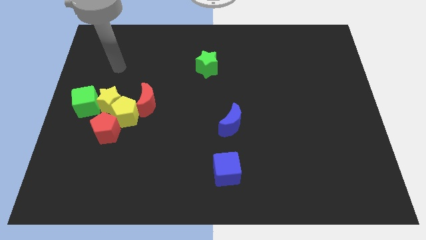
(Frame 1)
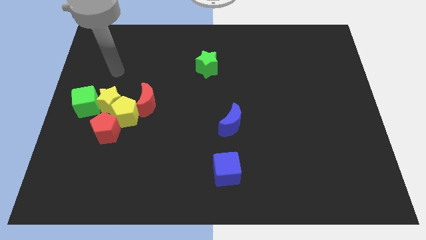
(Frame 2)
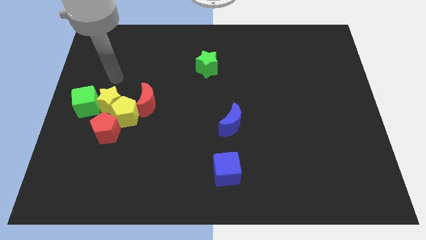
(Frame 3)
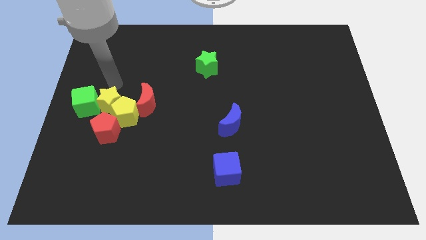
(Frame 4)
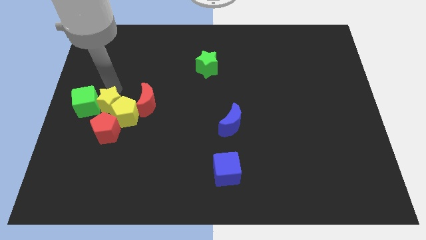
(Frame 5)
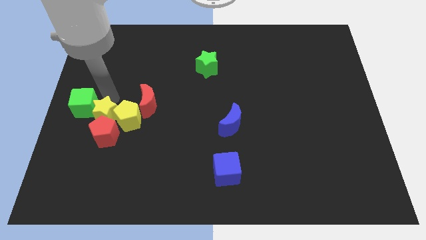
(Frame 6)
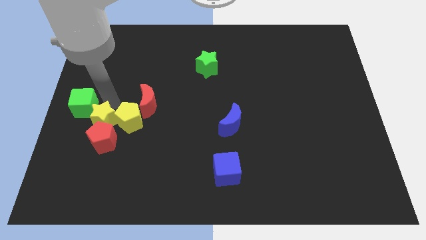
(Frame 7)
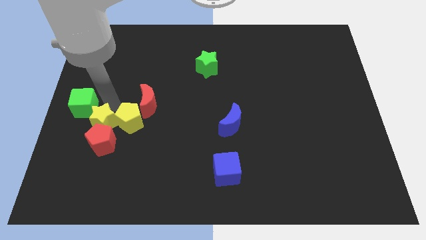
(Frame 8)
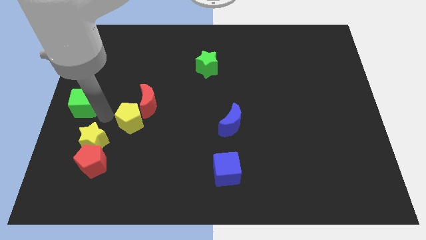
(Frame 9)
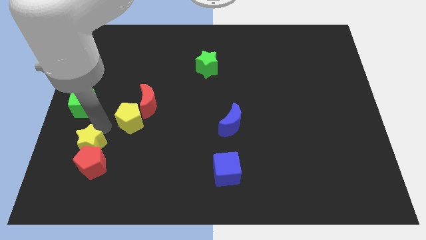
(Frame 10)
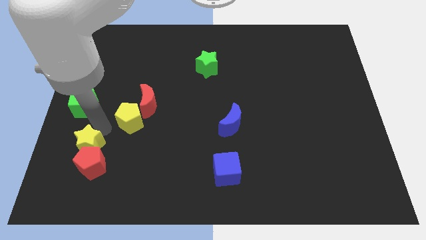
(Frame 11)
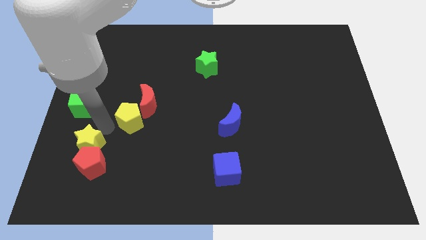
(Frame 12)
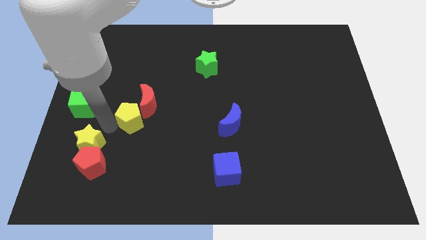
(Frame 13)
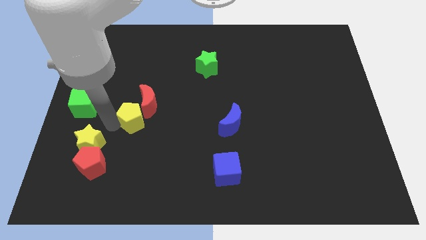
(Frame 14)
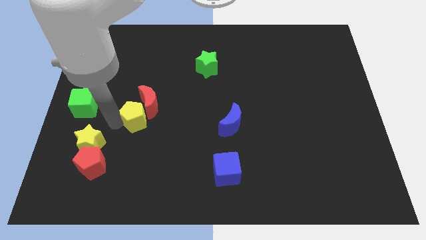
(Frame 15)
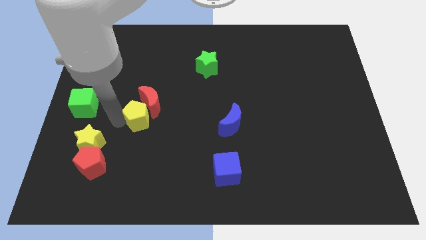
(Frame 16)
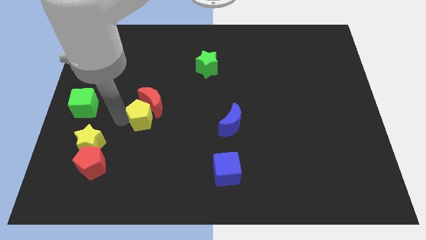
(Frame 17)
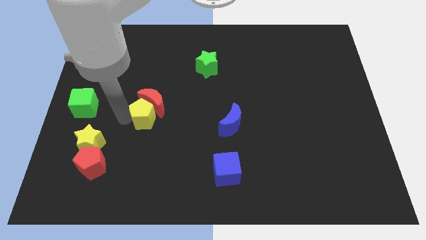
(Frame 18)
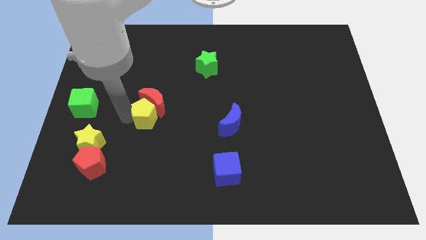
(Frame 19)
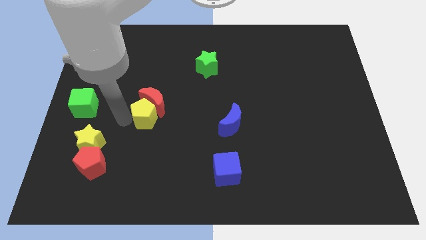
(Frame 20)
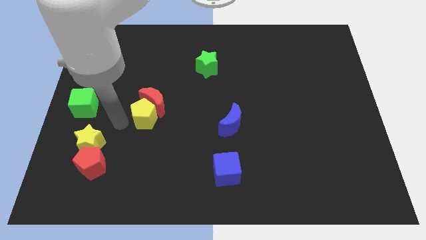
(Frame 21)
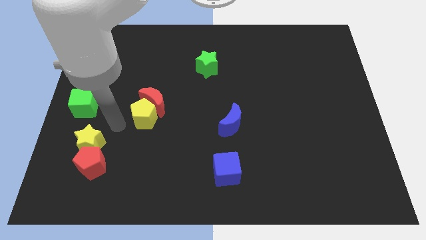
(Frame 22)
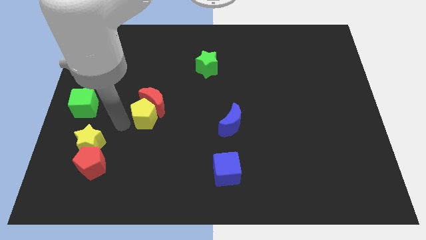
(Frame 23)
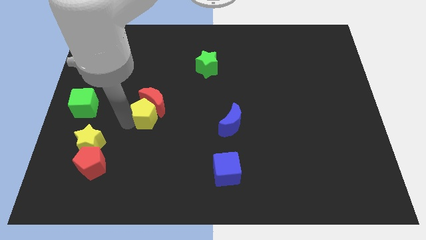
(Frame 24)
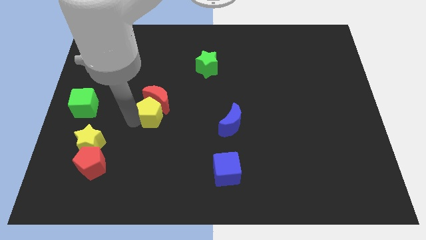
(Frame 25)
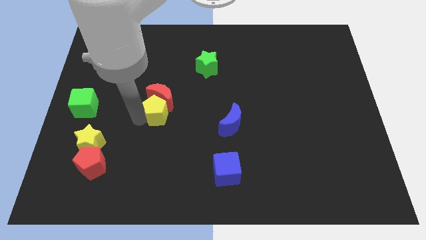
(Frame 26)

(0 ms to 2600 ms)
move the yellow pentagon away from the group

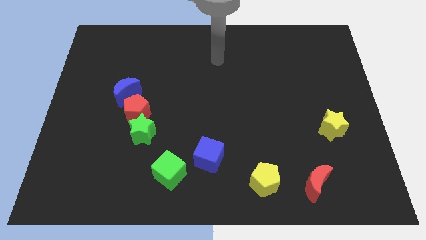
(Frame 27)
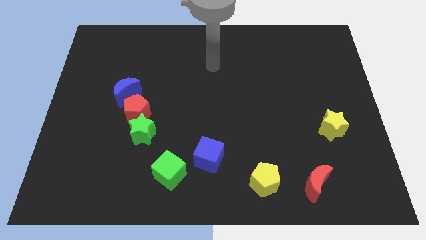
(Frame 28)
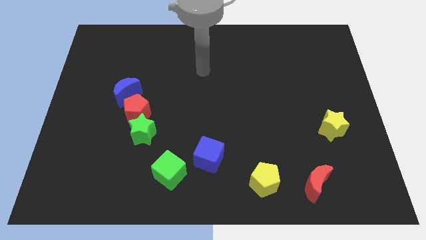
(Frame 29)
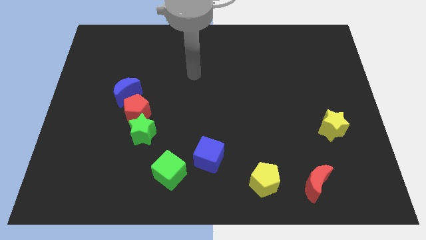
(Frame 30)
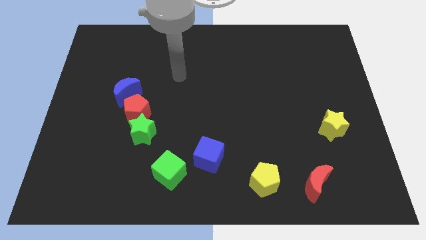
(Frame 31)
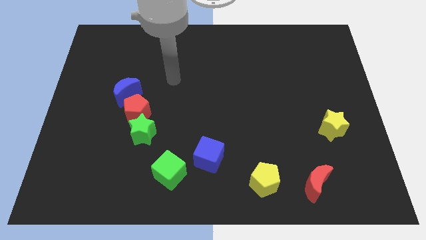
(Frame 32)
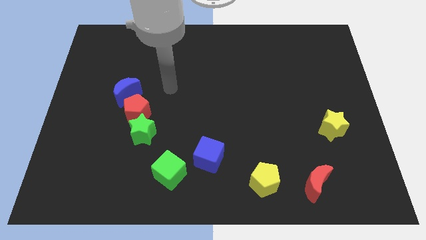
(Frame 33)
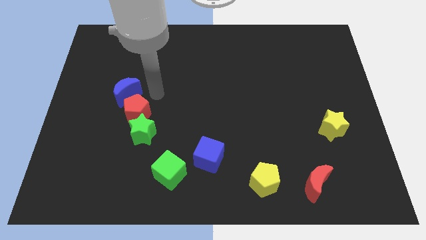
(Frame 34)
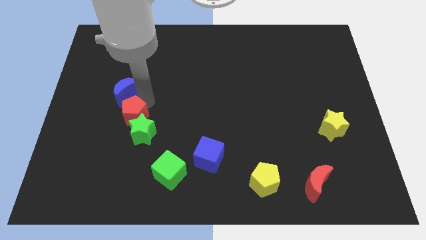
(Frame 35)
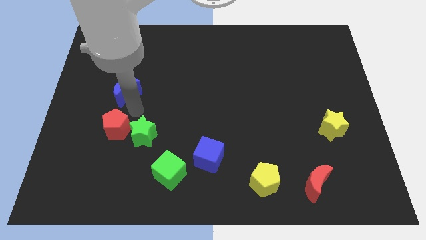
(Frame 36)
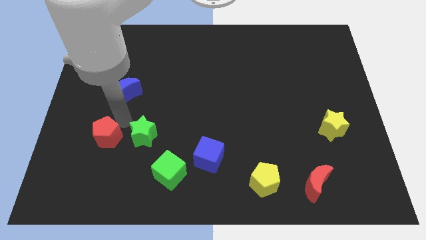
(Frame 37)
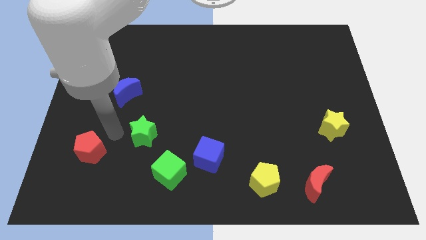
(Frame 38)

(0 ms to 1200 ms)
move the green star away from the red pentagon

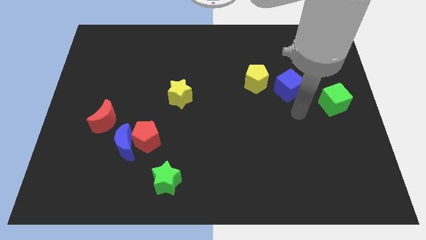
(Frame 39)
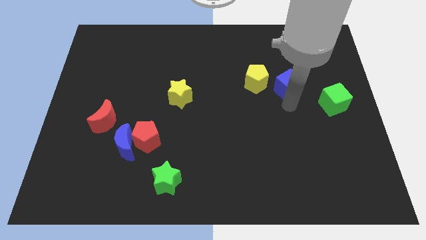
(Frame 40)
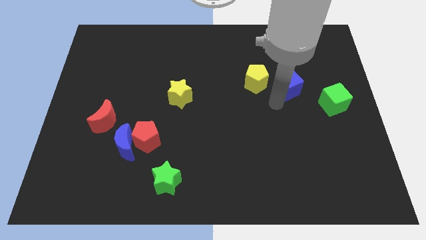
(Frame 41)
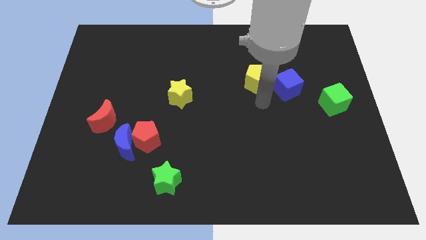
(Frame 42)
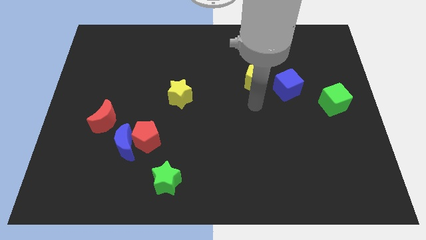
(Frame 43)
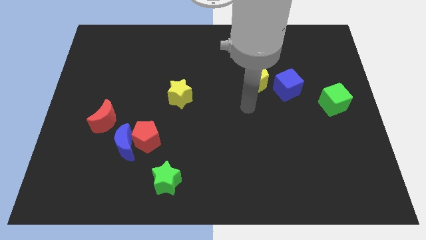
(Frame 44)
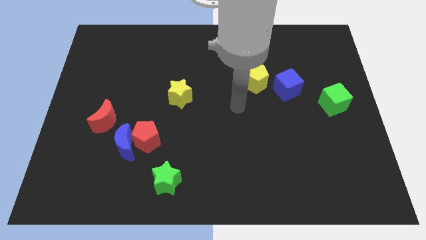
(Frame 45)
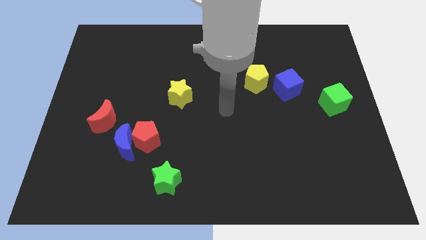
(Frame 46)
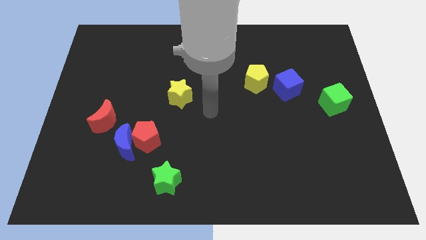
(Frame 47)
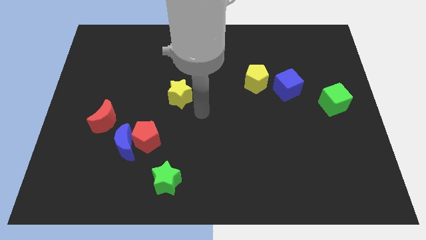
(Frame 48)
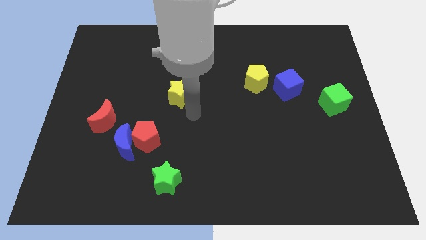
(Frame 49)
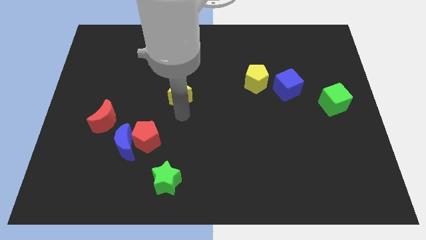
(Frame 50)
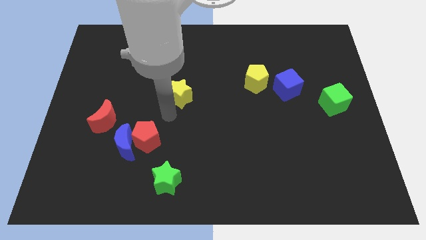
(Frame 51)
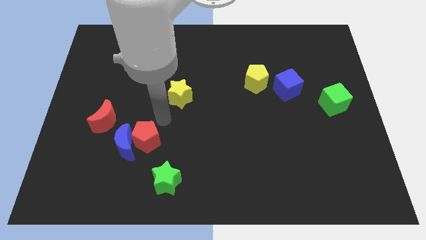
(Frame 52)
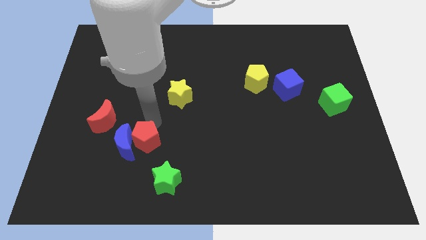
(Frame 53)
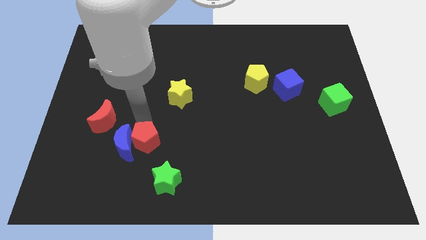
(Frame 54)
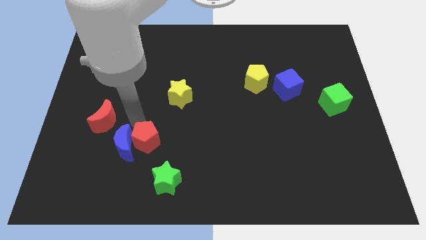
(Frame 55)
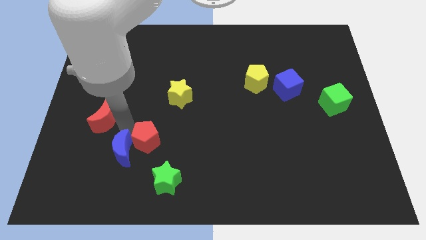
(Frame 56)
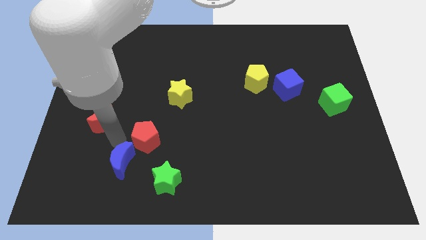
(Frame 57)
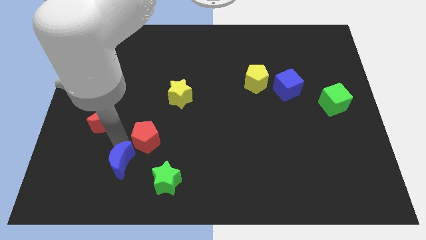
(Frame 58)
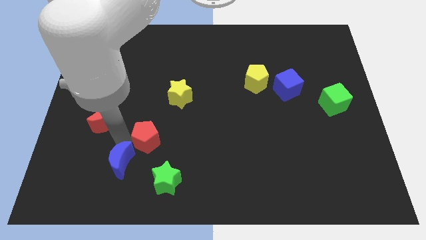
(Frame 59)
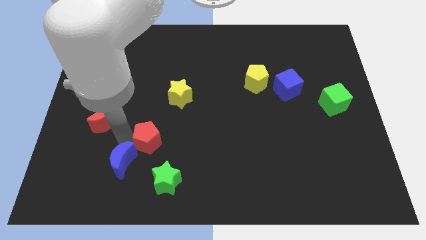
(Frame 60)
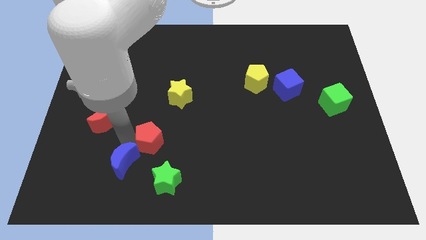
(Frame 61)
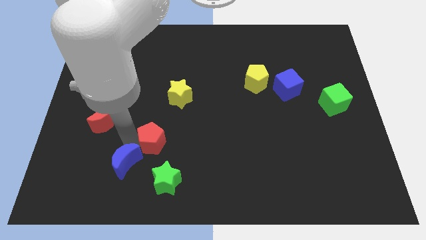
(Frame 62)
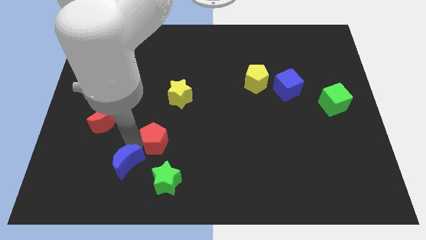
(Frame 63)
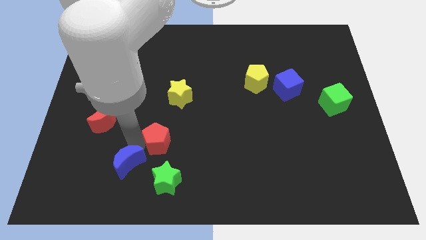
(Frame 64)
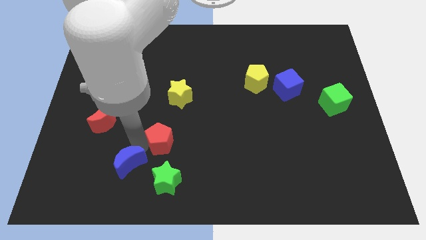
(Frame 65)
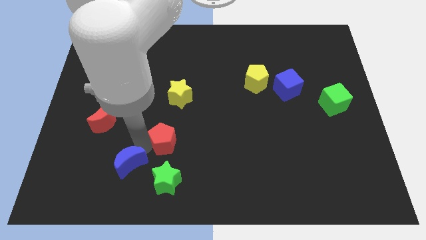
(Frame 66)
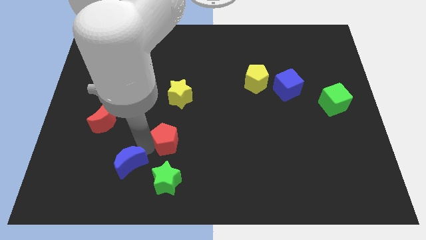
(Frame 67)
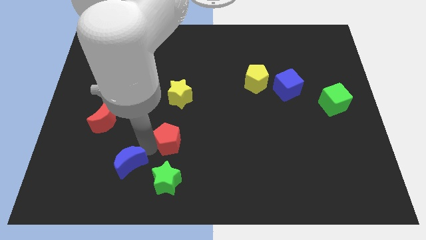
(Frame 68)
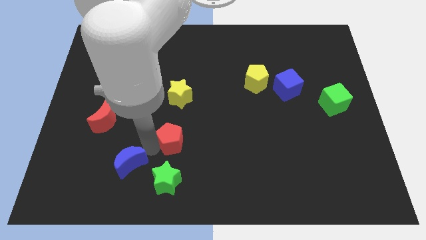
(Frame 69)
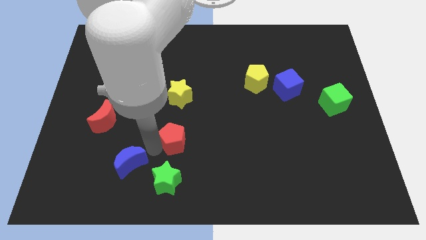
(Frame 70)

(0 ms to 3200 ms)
move the red pentagon away from the blue moon

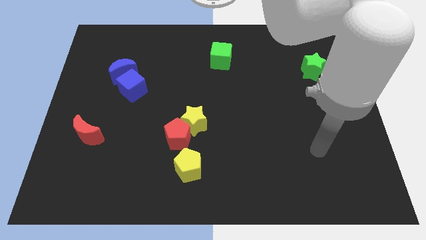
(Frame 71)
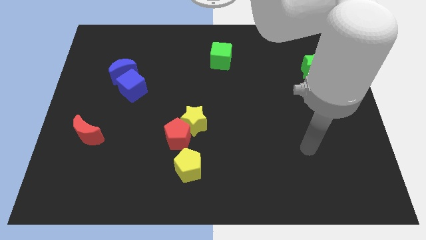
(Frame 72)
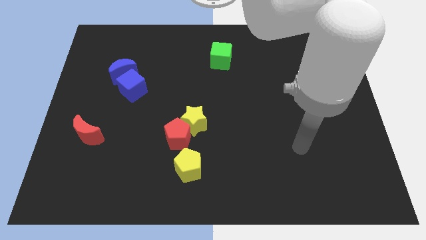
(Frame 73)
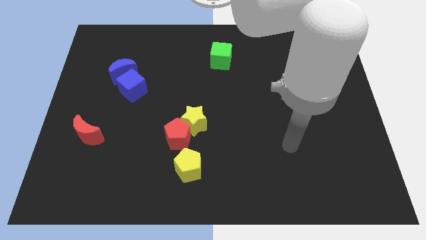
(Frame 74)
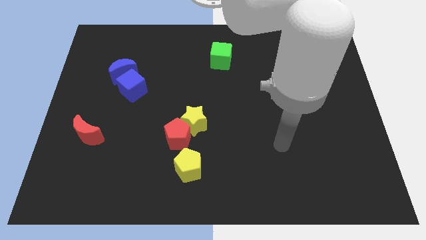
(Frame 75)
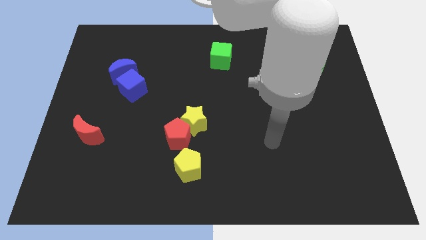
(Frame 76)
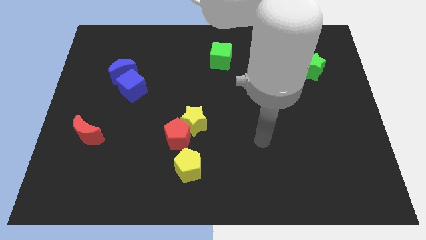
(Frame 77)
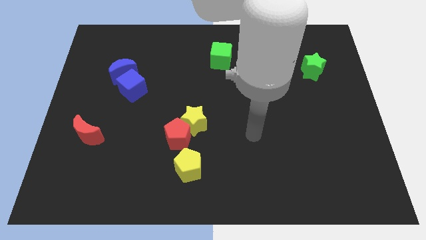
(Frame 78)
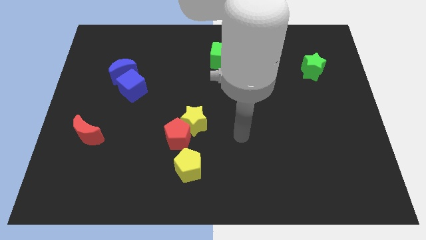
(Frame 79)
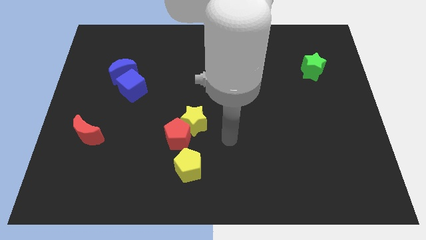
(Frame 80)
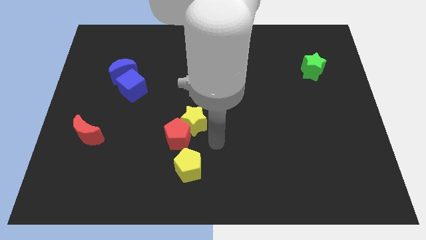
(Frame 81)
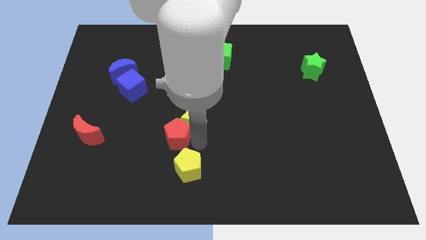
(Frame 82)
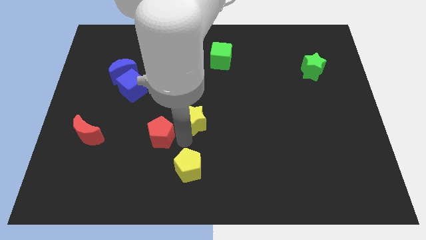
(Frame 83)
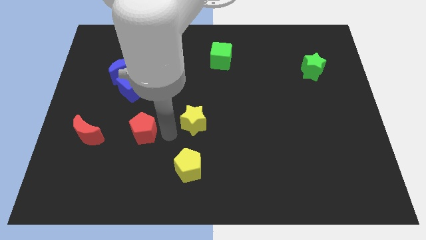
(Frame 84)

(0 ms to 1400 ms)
separate the yellow star from the red pentagon

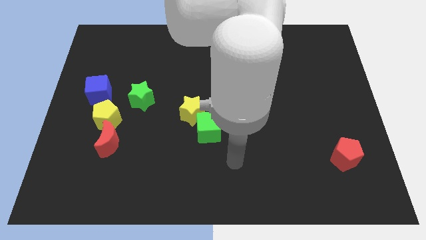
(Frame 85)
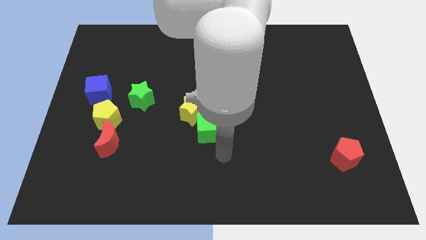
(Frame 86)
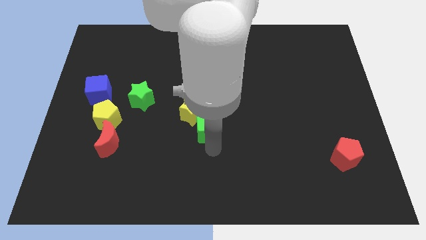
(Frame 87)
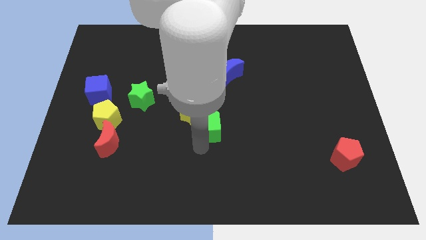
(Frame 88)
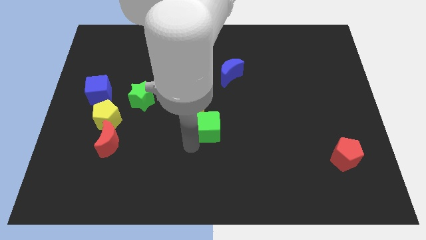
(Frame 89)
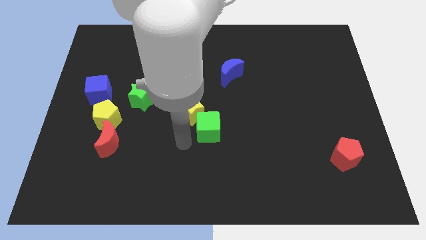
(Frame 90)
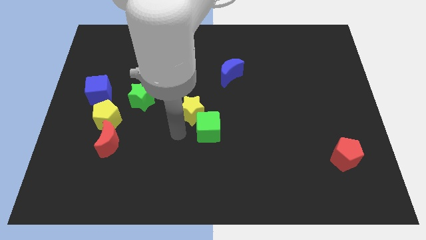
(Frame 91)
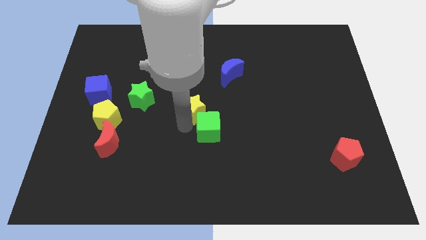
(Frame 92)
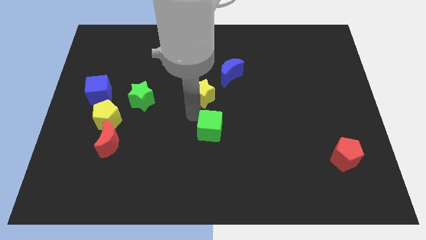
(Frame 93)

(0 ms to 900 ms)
move the green cube away from the yellow star
